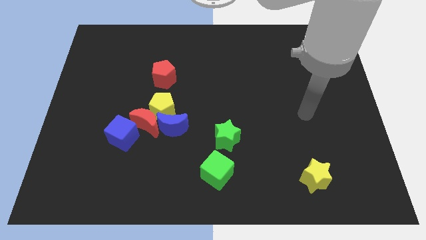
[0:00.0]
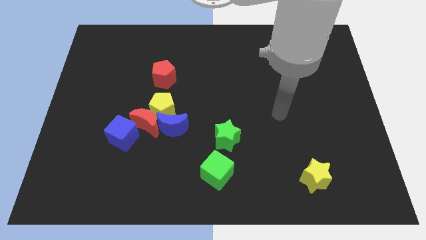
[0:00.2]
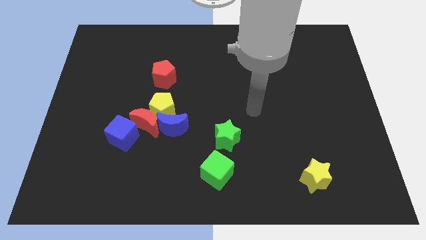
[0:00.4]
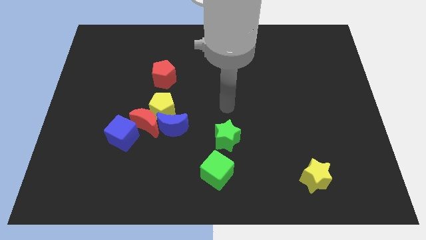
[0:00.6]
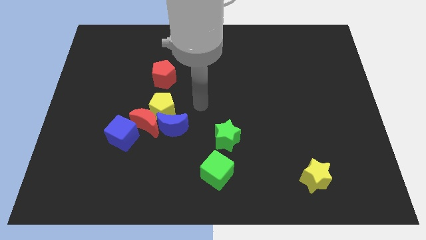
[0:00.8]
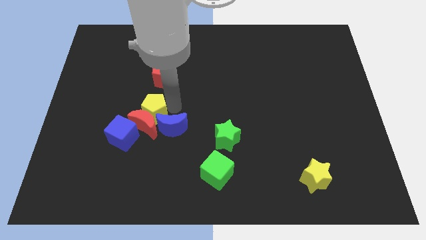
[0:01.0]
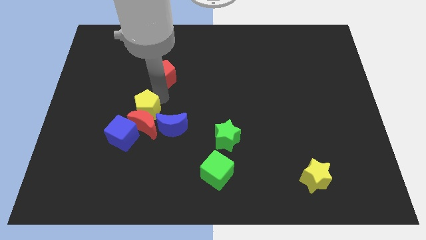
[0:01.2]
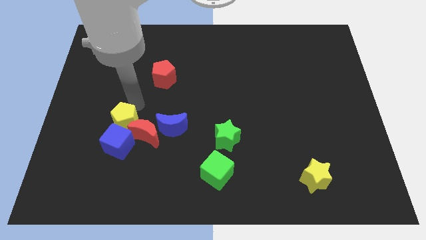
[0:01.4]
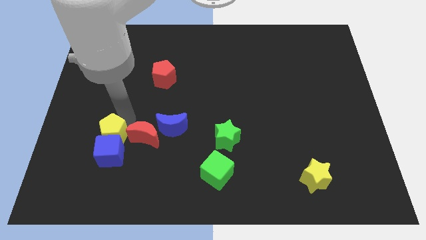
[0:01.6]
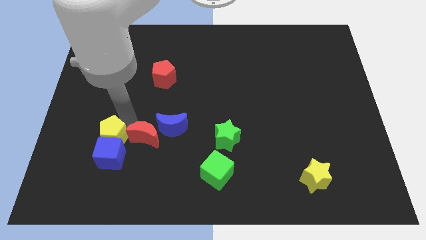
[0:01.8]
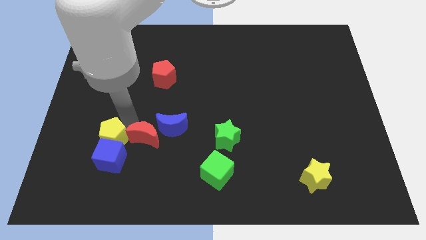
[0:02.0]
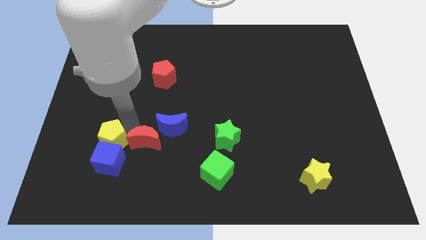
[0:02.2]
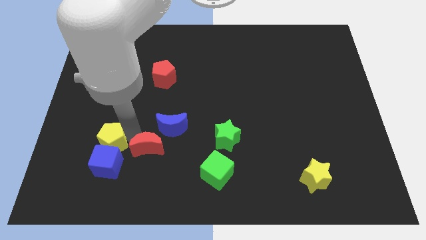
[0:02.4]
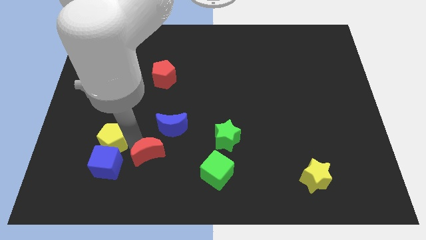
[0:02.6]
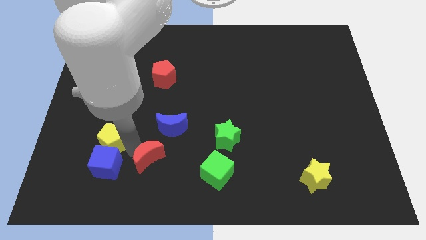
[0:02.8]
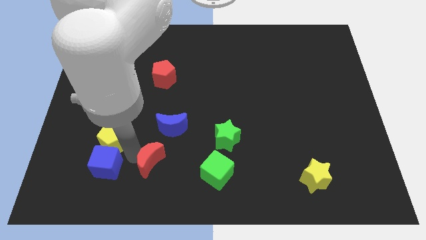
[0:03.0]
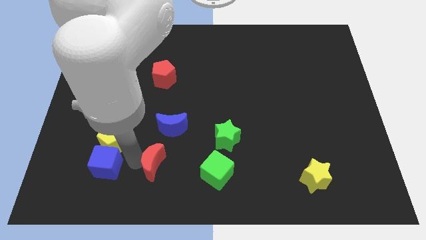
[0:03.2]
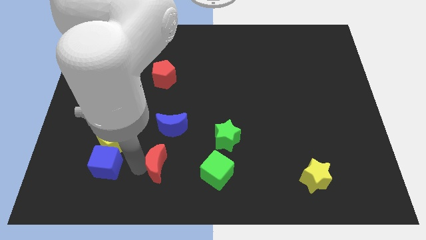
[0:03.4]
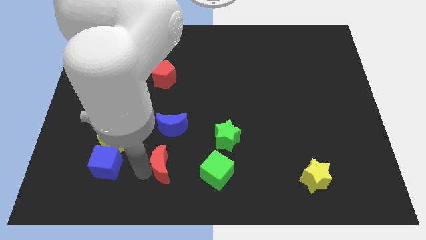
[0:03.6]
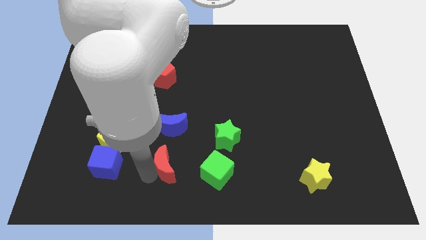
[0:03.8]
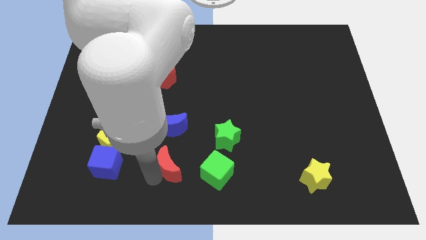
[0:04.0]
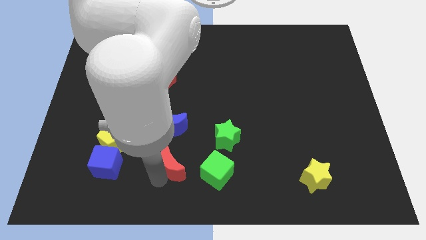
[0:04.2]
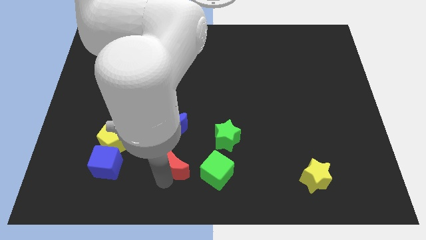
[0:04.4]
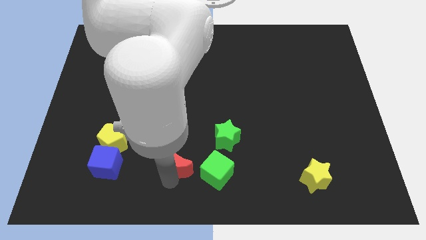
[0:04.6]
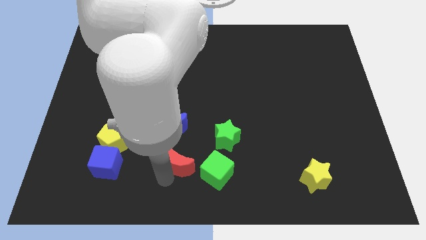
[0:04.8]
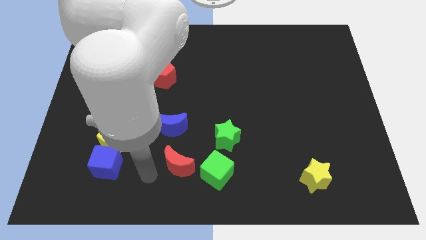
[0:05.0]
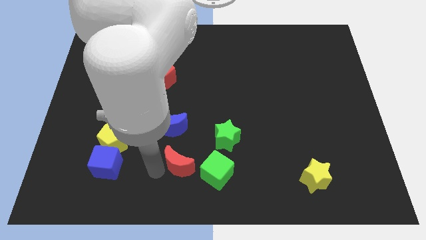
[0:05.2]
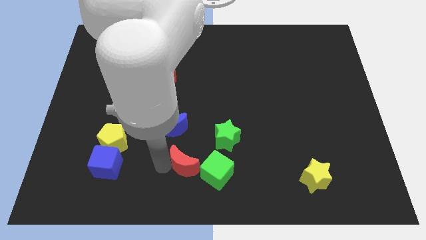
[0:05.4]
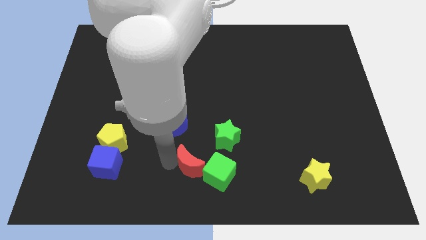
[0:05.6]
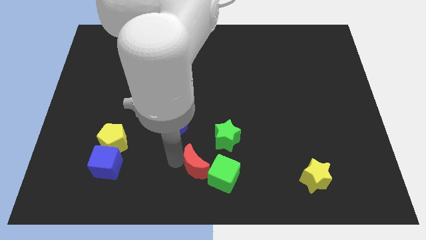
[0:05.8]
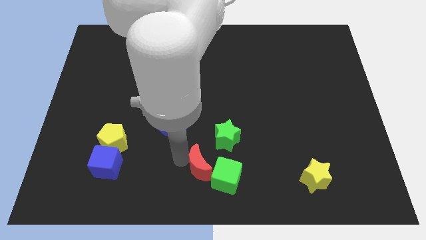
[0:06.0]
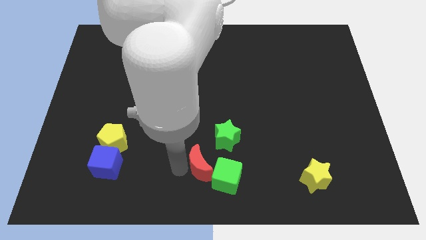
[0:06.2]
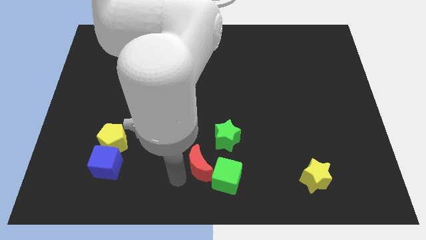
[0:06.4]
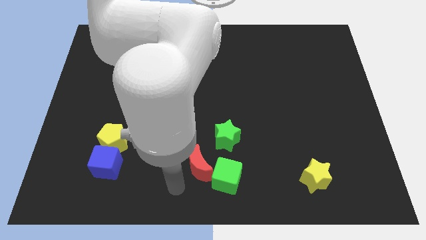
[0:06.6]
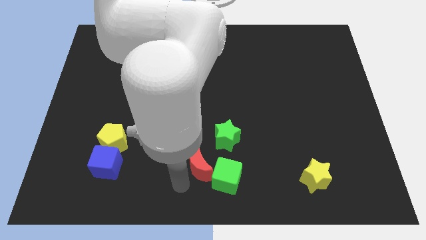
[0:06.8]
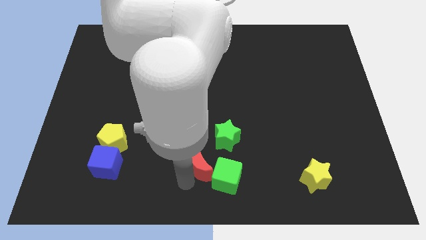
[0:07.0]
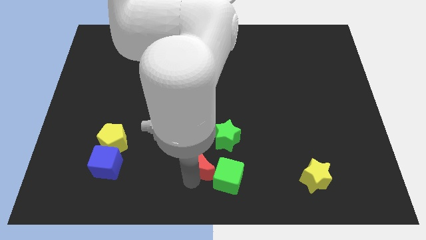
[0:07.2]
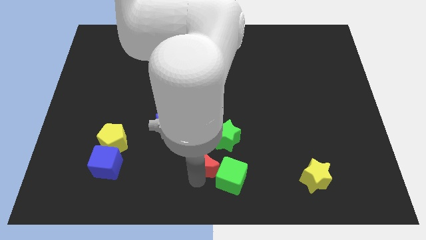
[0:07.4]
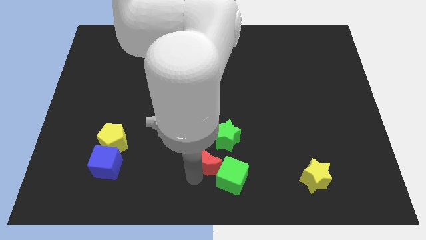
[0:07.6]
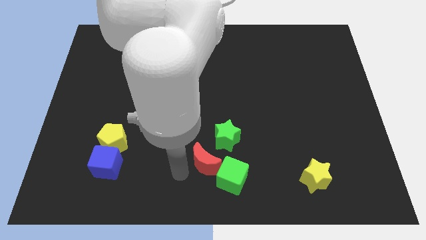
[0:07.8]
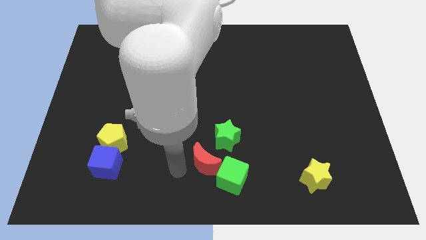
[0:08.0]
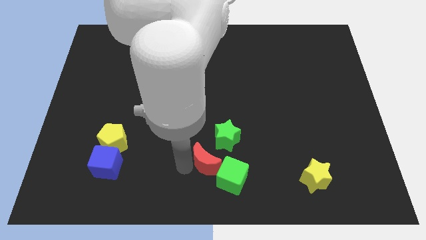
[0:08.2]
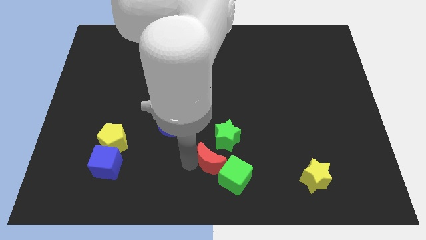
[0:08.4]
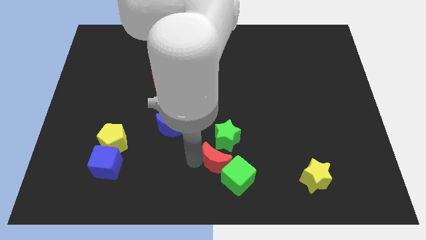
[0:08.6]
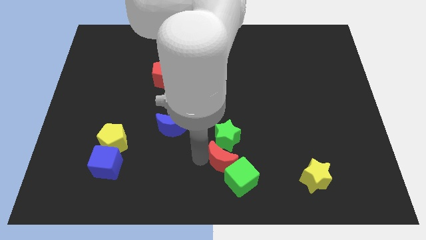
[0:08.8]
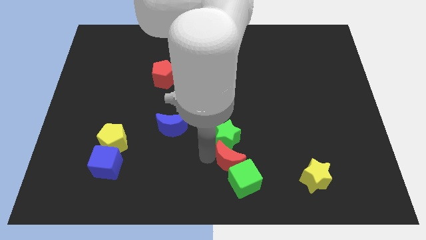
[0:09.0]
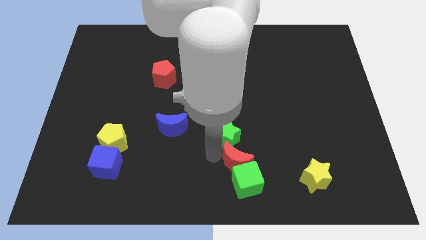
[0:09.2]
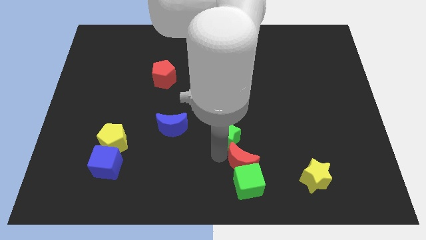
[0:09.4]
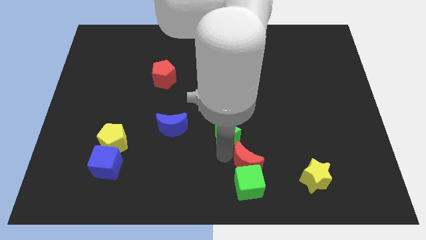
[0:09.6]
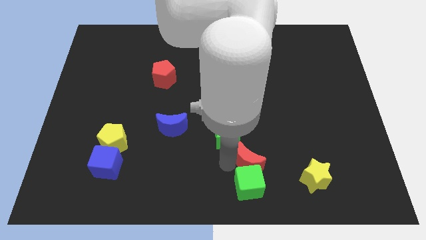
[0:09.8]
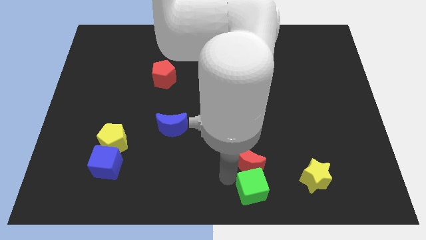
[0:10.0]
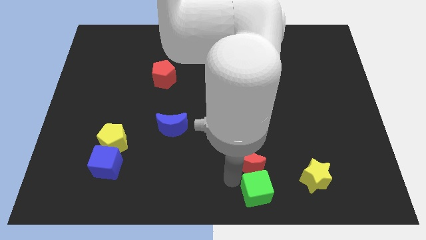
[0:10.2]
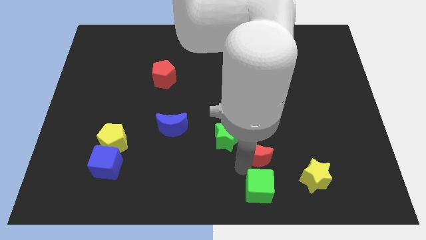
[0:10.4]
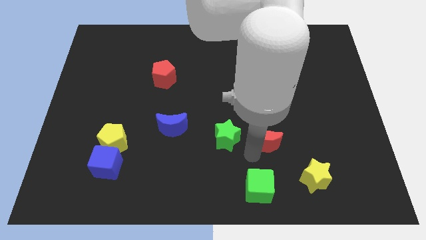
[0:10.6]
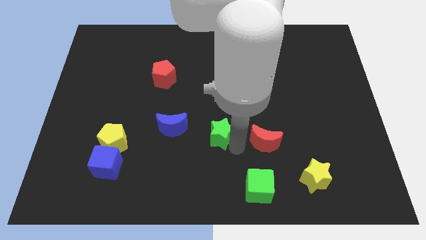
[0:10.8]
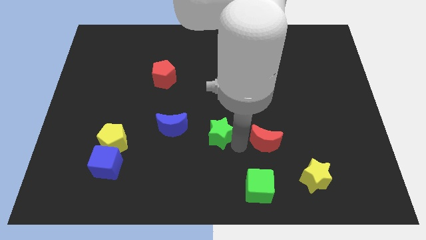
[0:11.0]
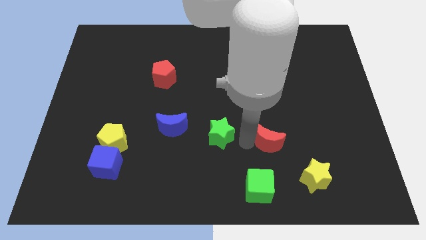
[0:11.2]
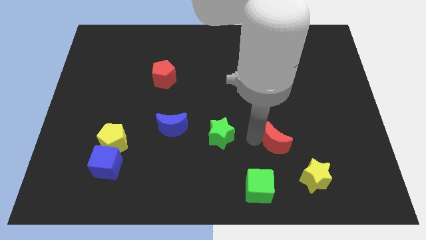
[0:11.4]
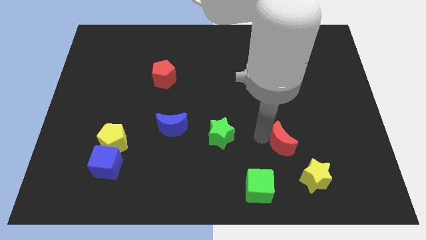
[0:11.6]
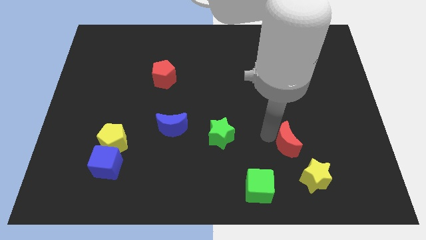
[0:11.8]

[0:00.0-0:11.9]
slide the red moon above the yellow star

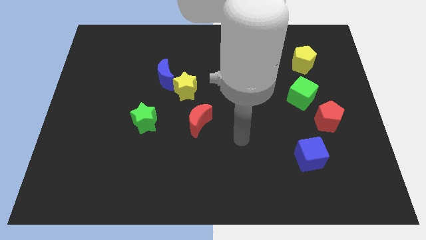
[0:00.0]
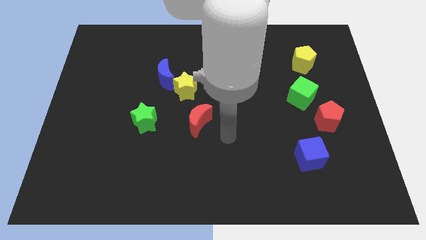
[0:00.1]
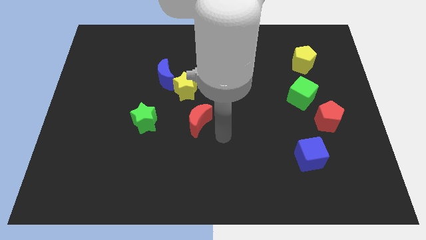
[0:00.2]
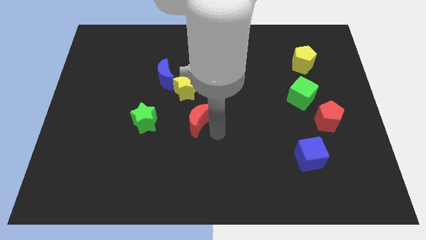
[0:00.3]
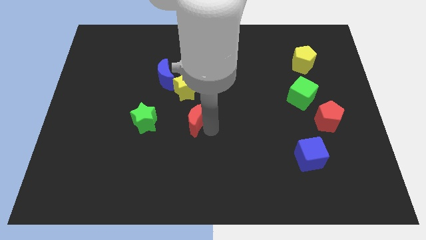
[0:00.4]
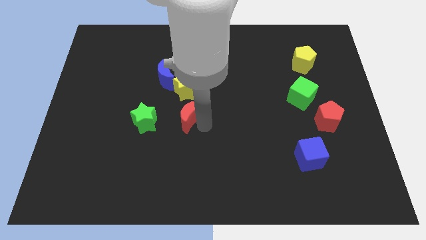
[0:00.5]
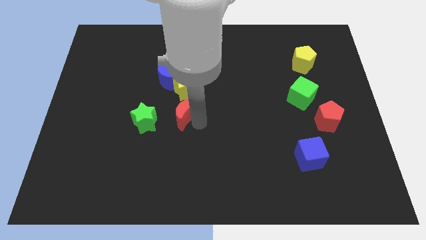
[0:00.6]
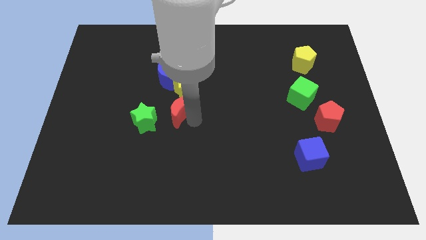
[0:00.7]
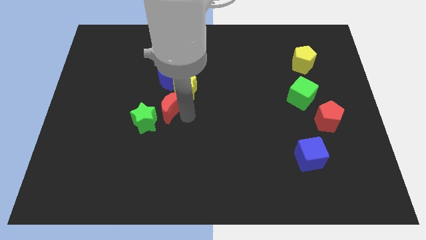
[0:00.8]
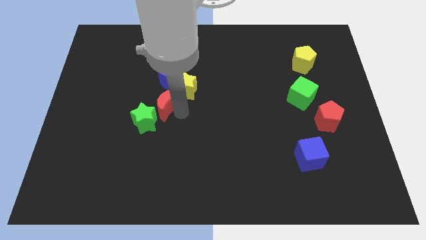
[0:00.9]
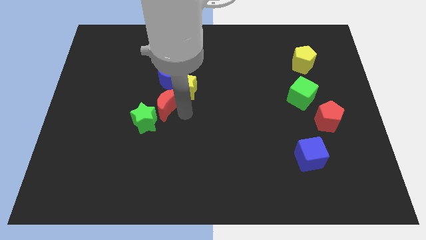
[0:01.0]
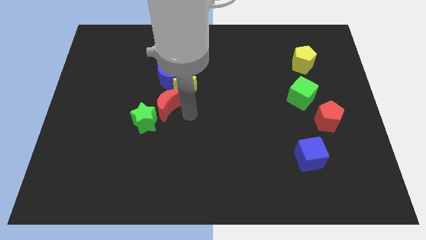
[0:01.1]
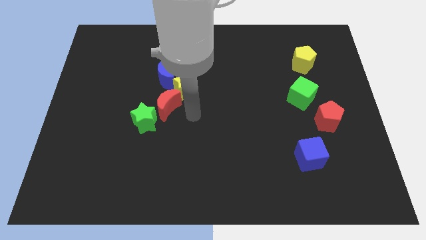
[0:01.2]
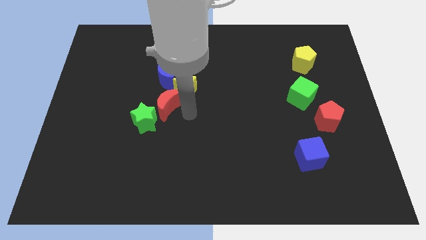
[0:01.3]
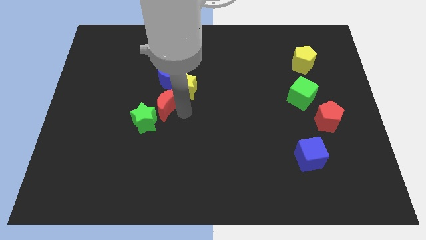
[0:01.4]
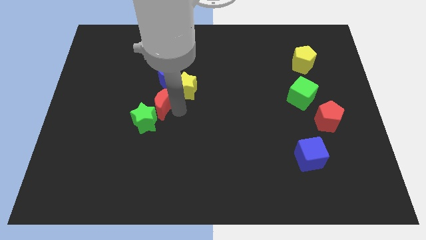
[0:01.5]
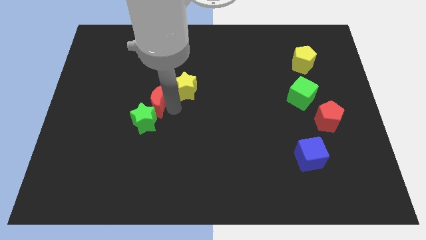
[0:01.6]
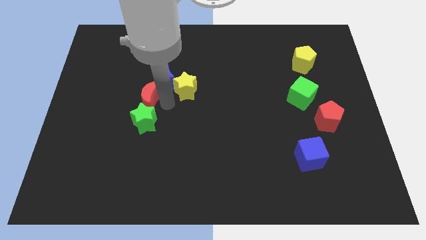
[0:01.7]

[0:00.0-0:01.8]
slide the red moon to the top left side of the green star
